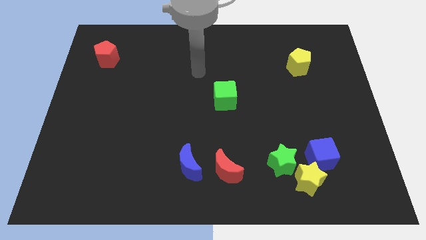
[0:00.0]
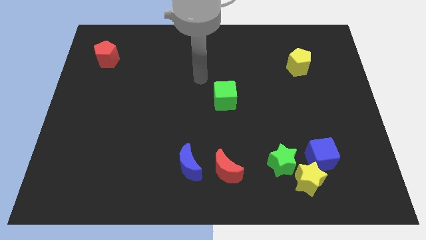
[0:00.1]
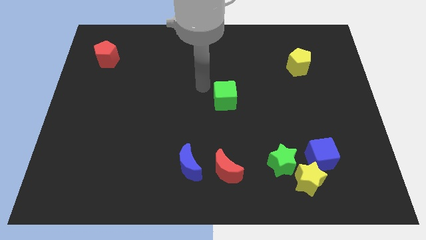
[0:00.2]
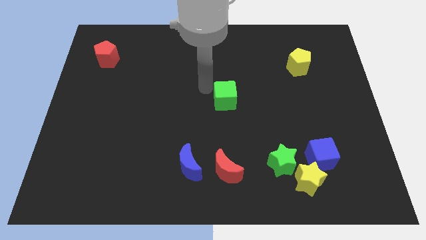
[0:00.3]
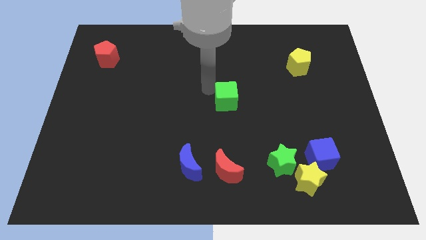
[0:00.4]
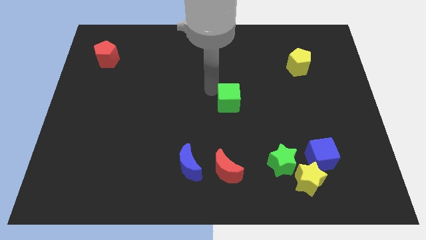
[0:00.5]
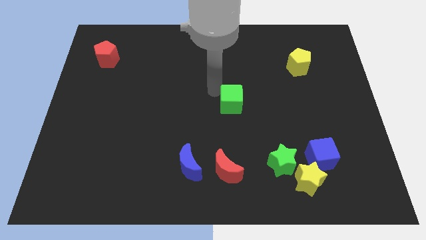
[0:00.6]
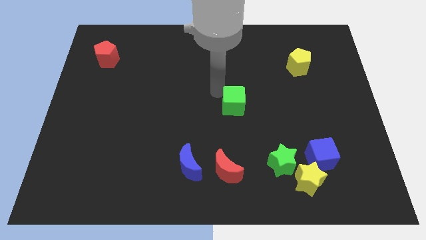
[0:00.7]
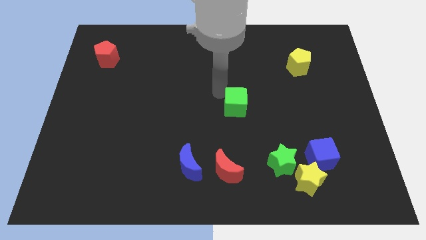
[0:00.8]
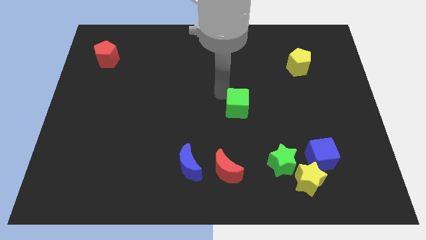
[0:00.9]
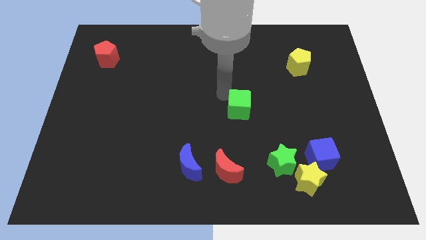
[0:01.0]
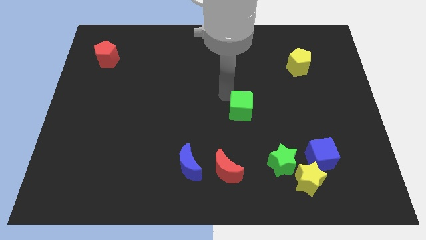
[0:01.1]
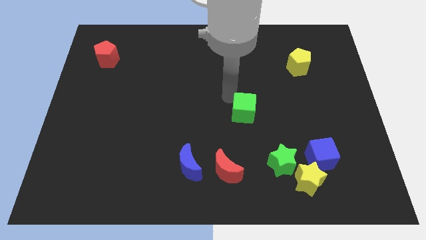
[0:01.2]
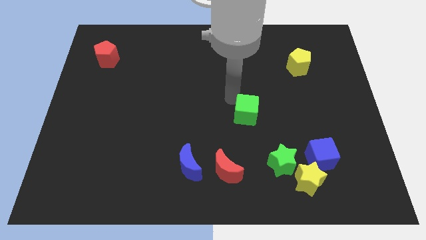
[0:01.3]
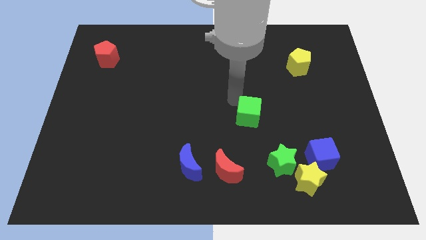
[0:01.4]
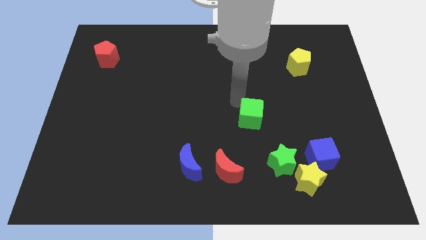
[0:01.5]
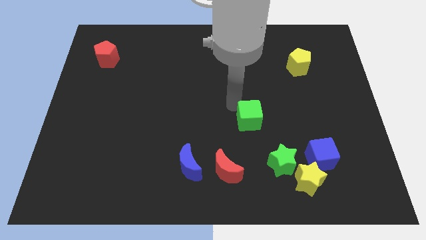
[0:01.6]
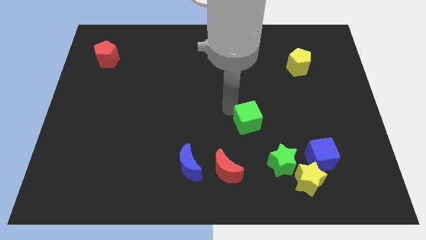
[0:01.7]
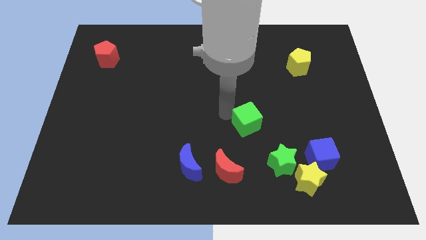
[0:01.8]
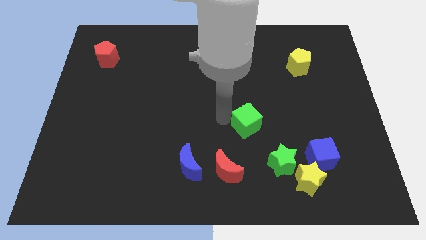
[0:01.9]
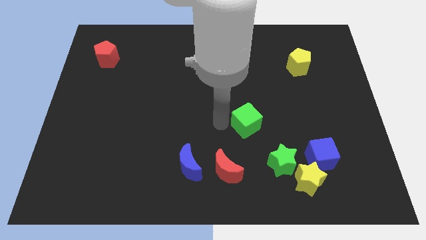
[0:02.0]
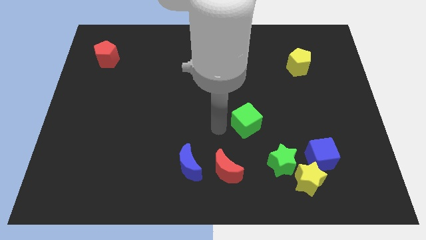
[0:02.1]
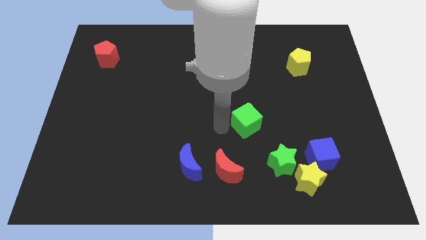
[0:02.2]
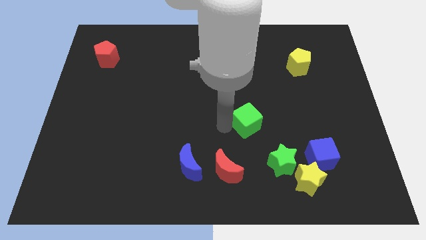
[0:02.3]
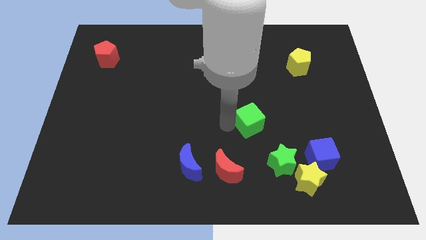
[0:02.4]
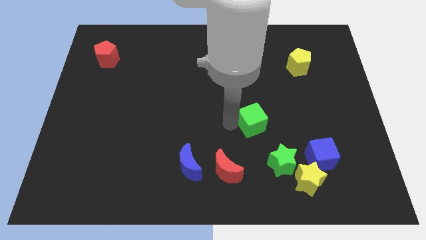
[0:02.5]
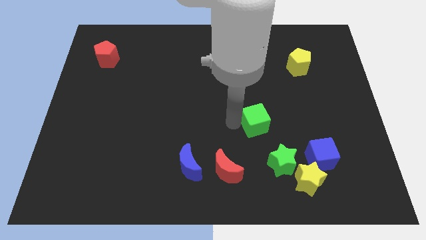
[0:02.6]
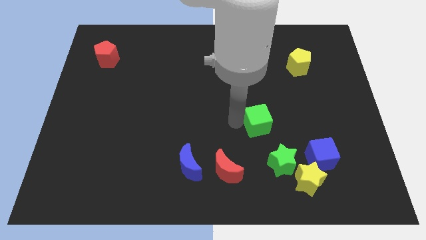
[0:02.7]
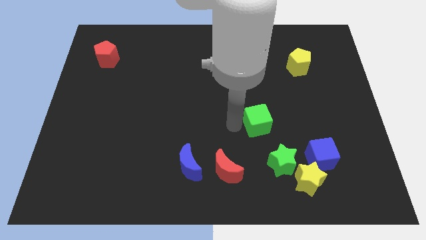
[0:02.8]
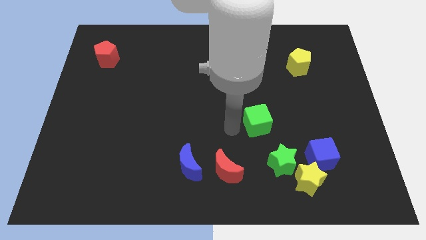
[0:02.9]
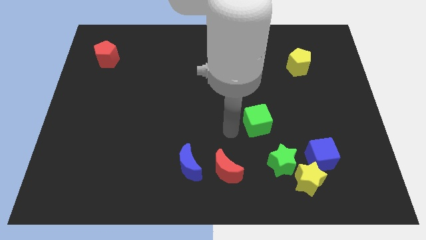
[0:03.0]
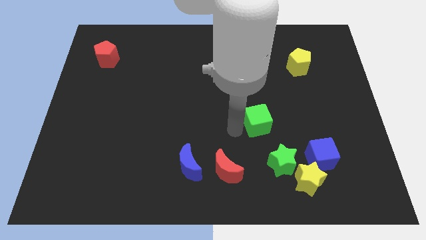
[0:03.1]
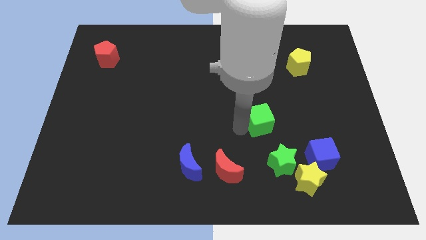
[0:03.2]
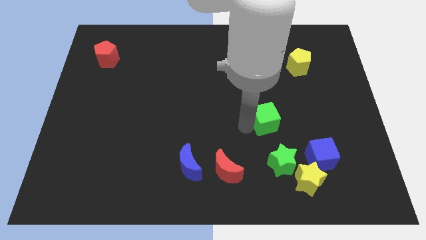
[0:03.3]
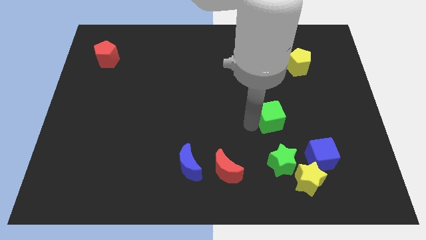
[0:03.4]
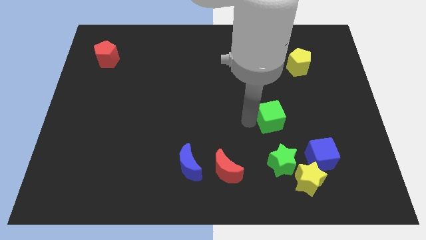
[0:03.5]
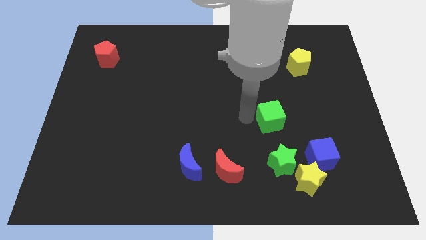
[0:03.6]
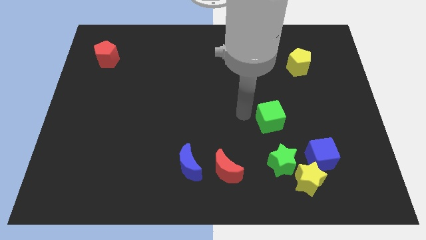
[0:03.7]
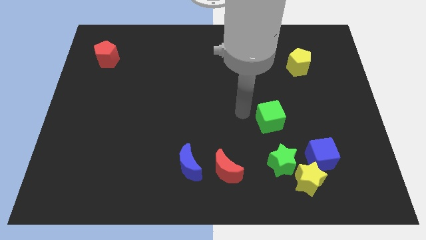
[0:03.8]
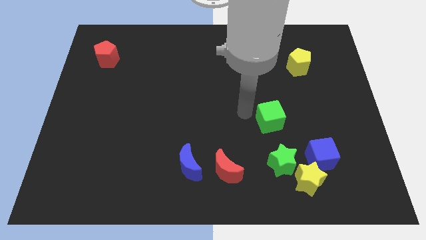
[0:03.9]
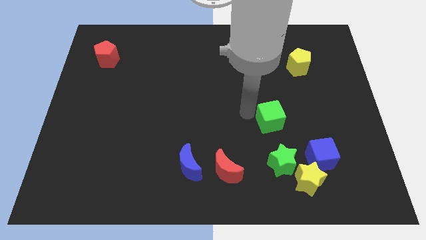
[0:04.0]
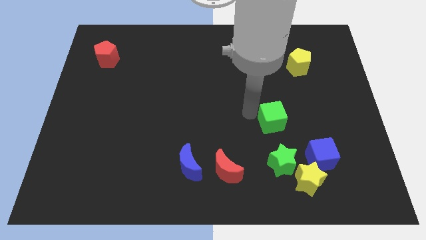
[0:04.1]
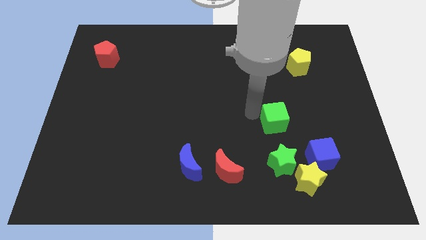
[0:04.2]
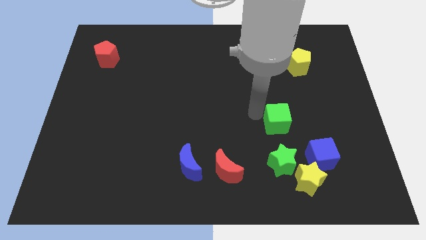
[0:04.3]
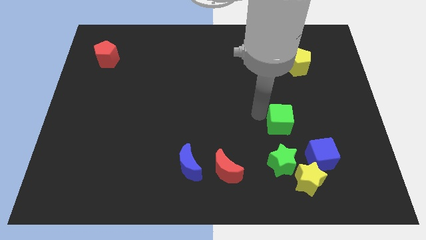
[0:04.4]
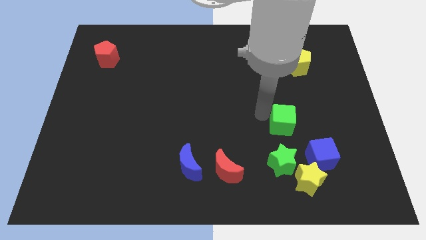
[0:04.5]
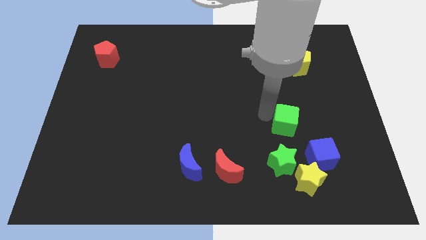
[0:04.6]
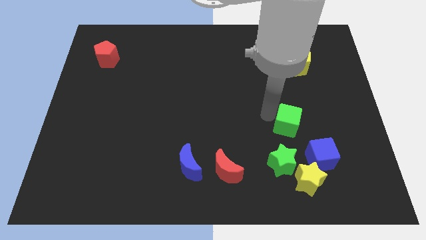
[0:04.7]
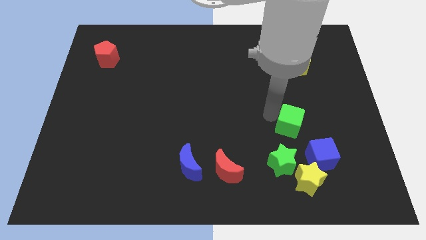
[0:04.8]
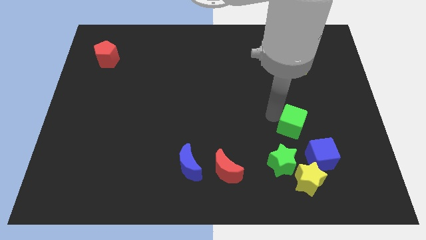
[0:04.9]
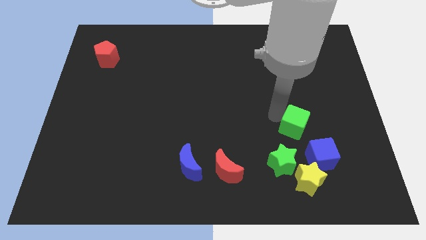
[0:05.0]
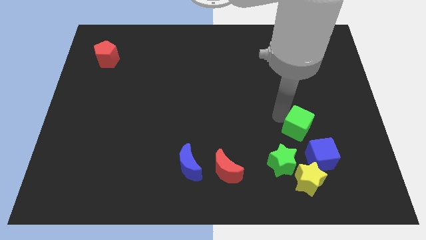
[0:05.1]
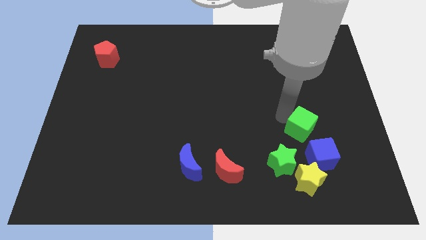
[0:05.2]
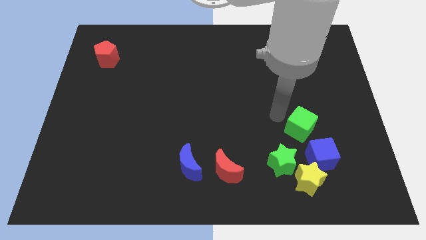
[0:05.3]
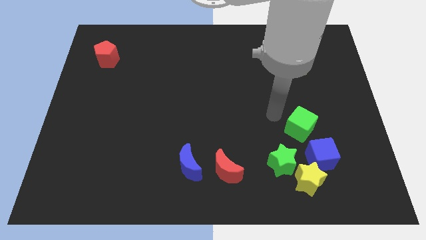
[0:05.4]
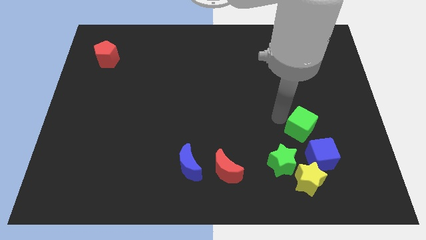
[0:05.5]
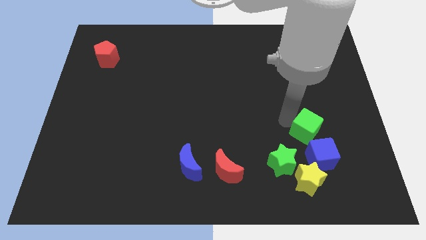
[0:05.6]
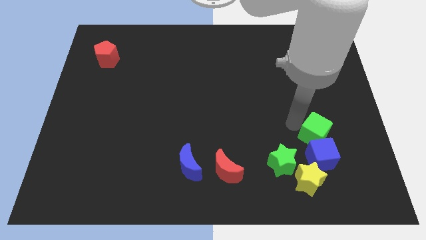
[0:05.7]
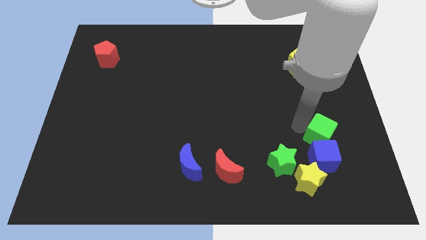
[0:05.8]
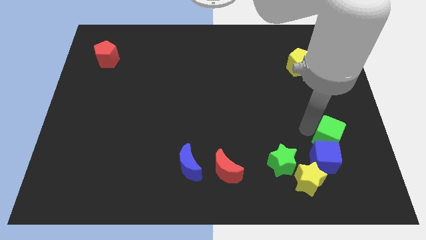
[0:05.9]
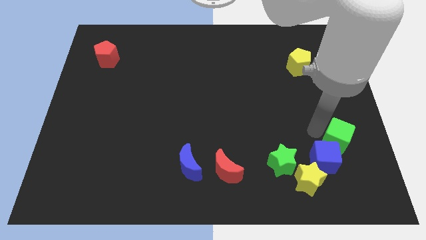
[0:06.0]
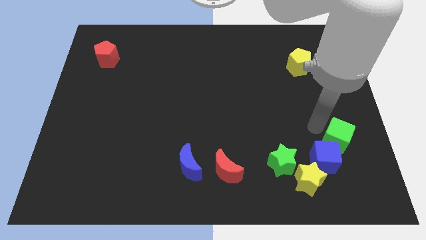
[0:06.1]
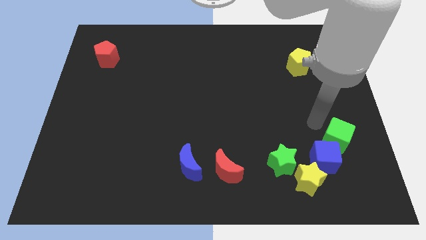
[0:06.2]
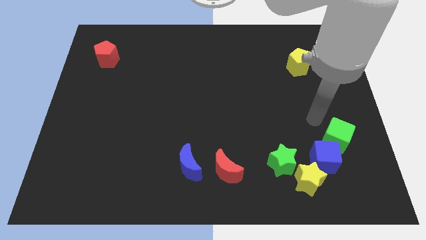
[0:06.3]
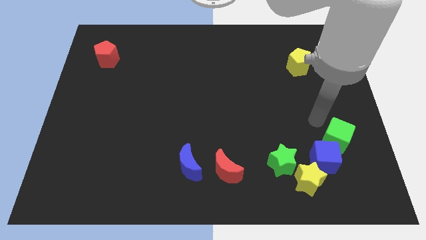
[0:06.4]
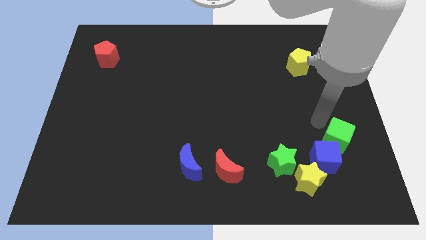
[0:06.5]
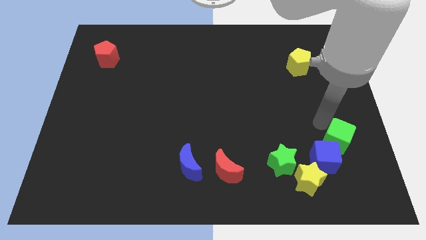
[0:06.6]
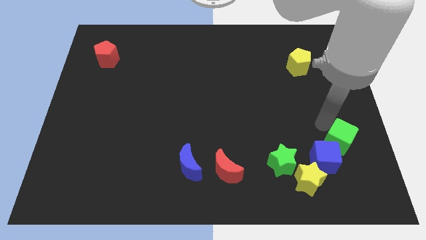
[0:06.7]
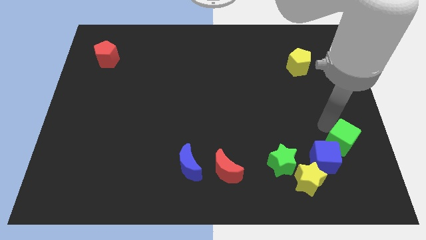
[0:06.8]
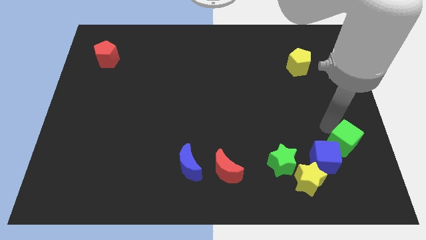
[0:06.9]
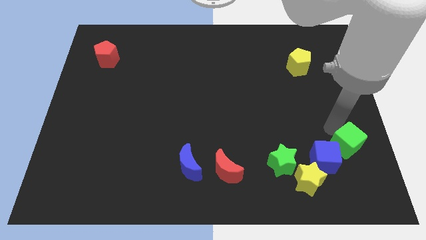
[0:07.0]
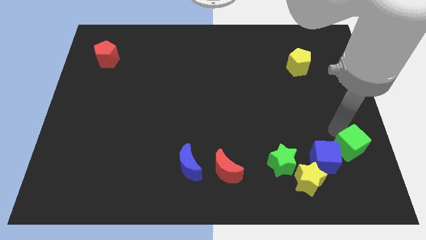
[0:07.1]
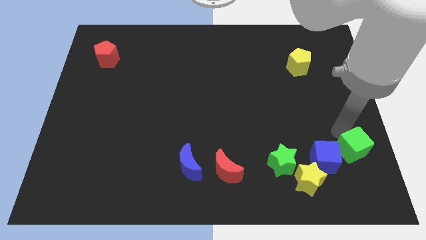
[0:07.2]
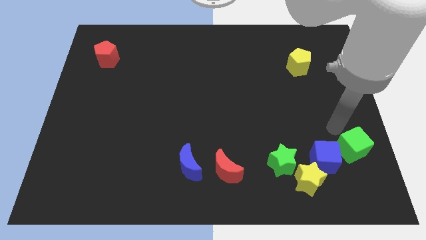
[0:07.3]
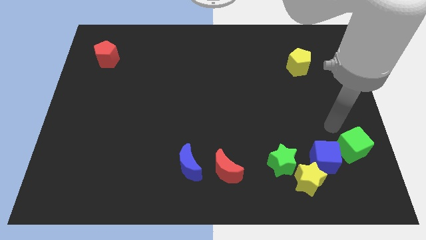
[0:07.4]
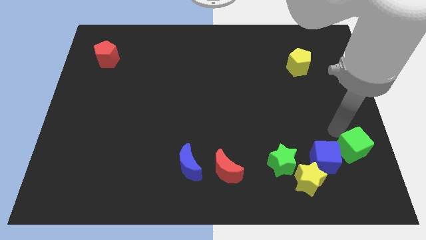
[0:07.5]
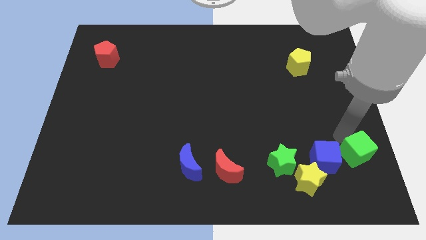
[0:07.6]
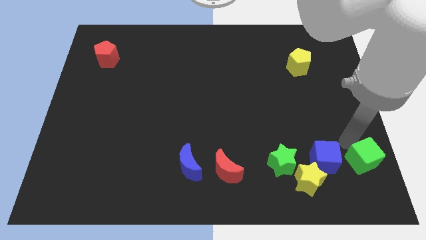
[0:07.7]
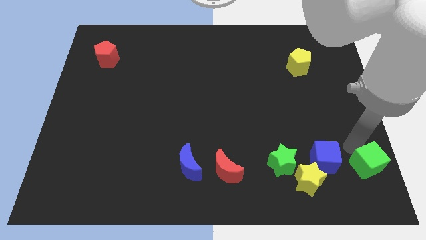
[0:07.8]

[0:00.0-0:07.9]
move the green cube to the bottom right corner
